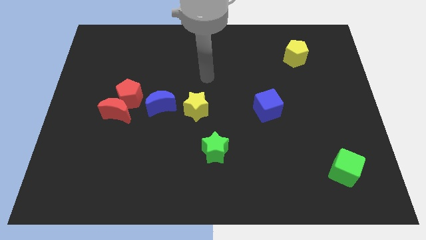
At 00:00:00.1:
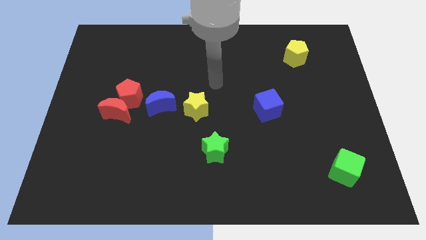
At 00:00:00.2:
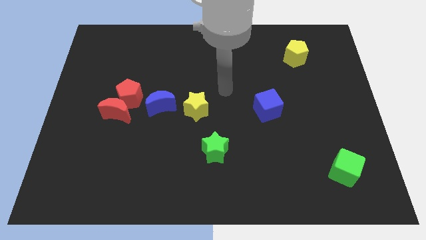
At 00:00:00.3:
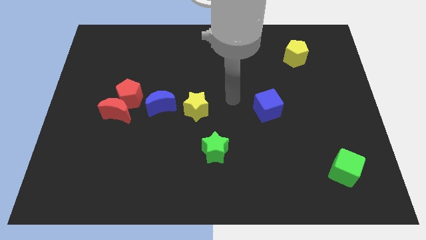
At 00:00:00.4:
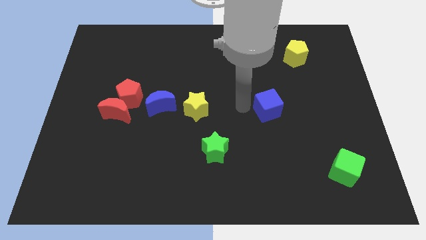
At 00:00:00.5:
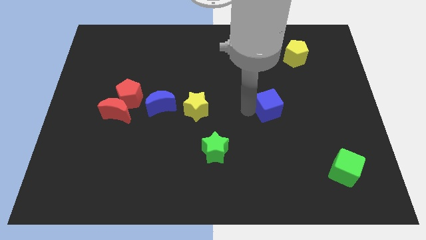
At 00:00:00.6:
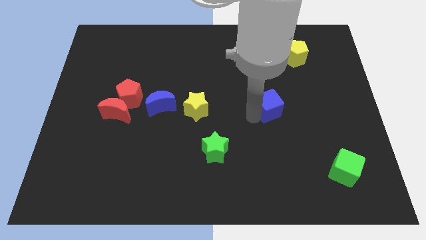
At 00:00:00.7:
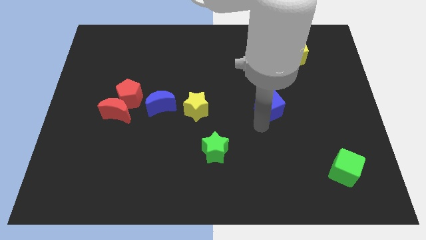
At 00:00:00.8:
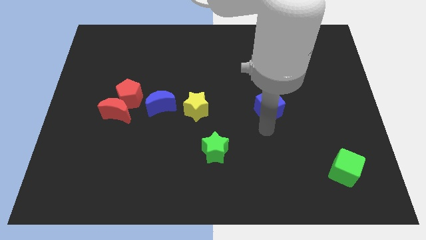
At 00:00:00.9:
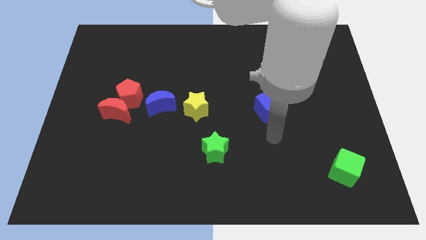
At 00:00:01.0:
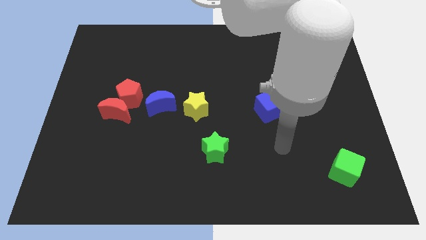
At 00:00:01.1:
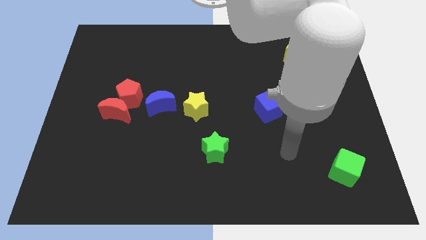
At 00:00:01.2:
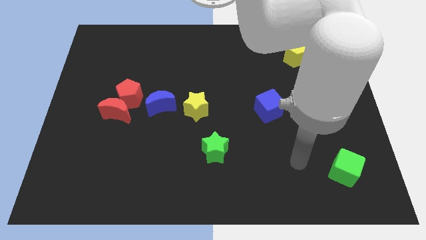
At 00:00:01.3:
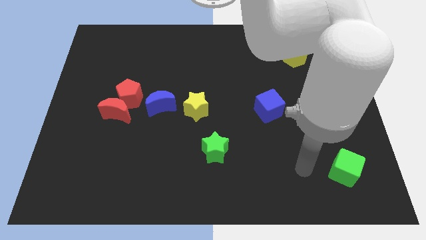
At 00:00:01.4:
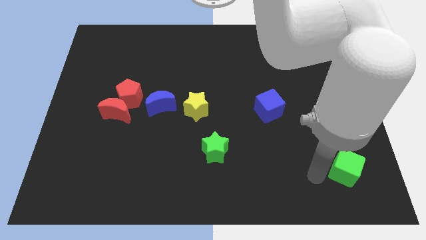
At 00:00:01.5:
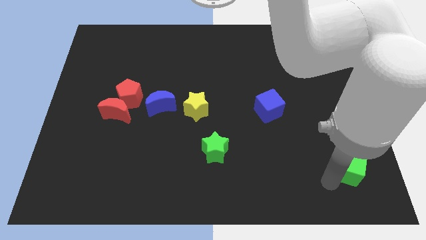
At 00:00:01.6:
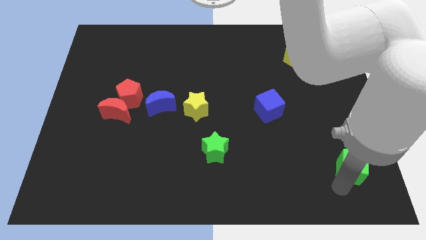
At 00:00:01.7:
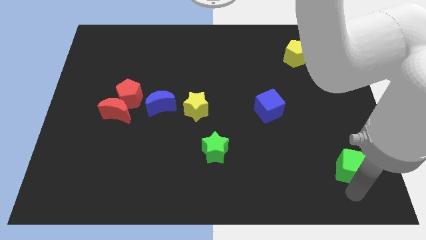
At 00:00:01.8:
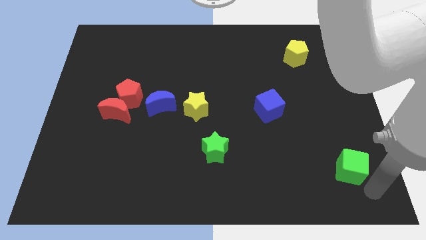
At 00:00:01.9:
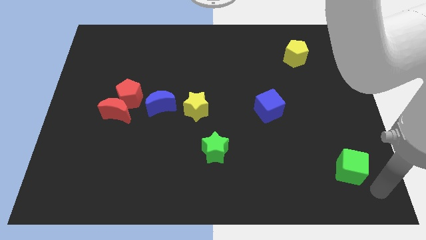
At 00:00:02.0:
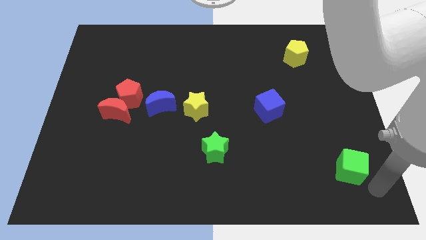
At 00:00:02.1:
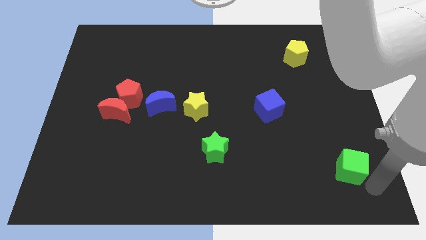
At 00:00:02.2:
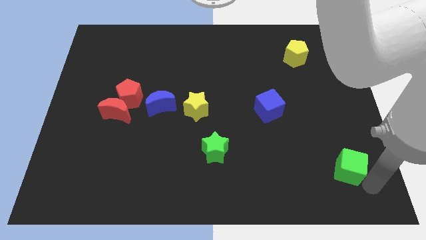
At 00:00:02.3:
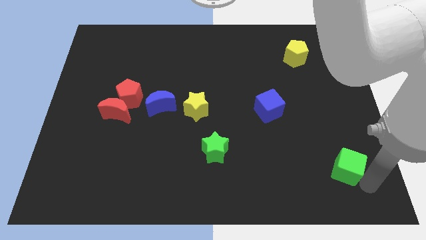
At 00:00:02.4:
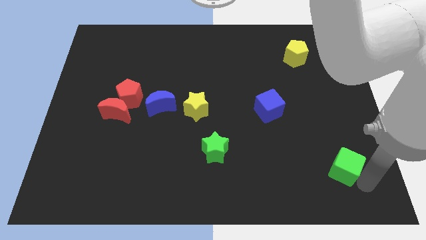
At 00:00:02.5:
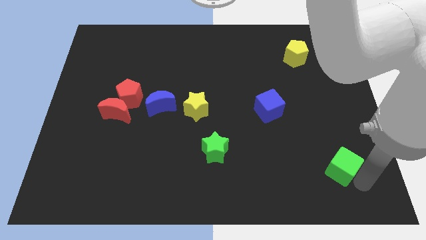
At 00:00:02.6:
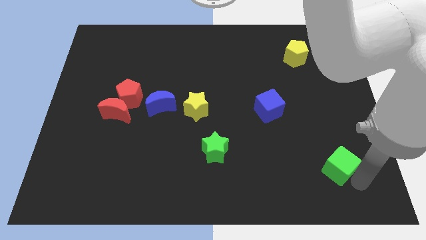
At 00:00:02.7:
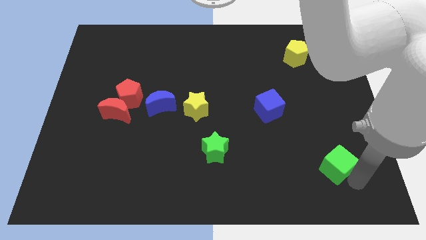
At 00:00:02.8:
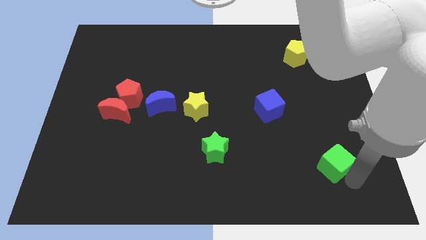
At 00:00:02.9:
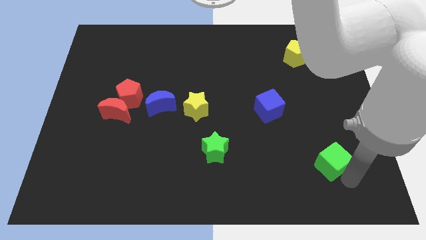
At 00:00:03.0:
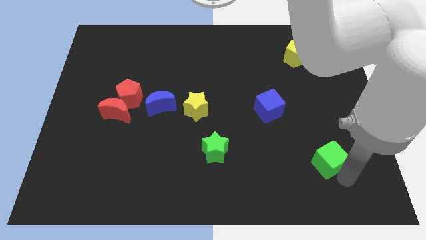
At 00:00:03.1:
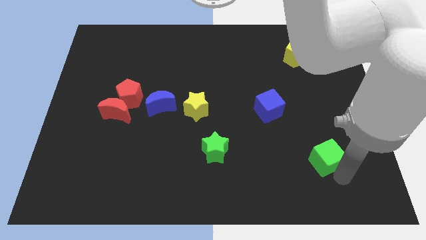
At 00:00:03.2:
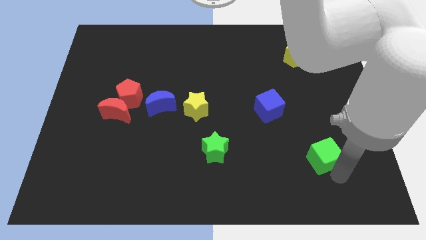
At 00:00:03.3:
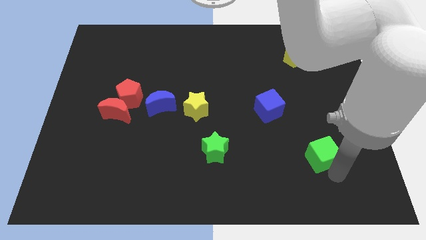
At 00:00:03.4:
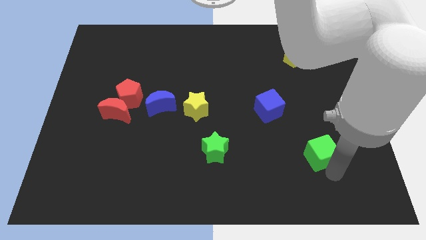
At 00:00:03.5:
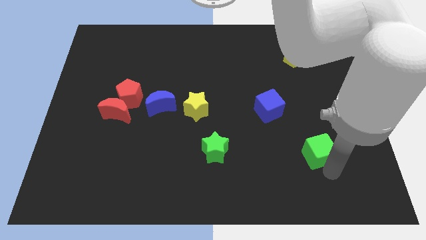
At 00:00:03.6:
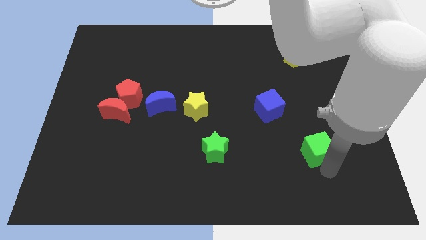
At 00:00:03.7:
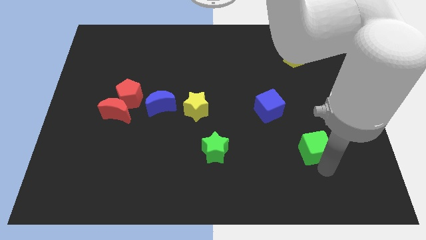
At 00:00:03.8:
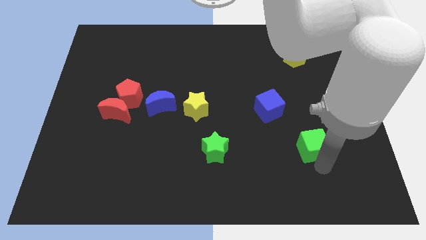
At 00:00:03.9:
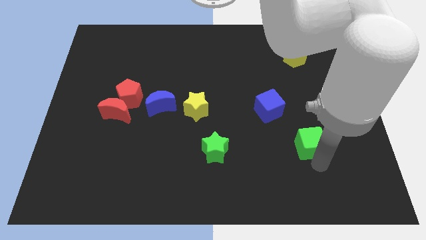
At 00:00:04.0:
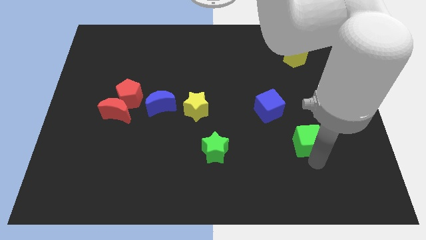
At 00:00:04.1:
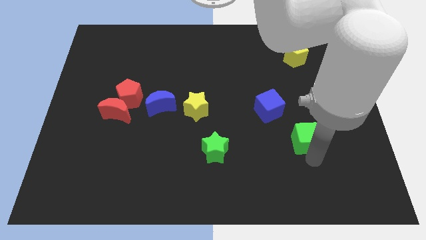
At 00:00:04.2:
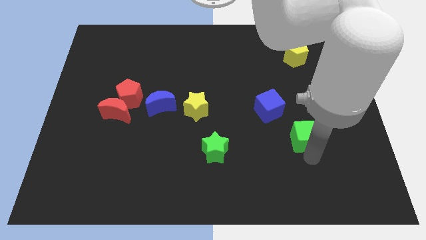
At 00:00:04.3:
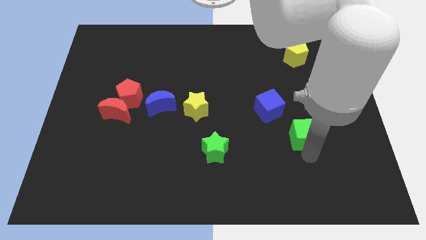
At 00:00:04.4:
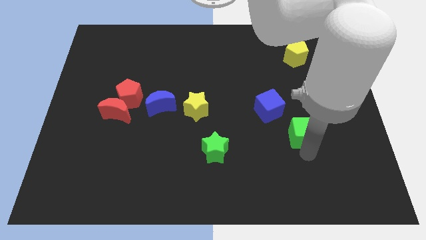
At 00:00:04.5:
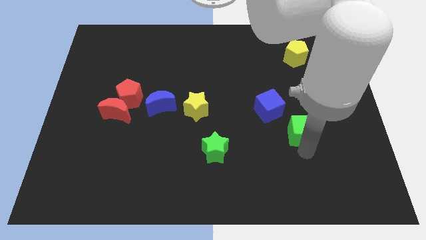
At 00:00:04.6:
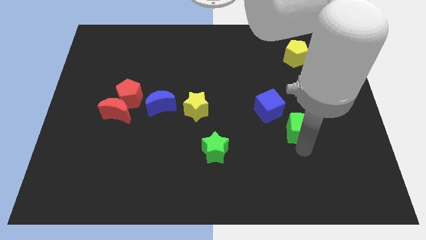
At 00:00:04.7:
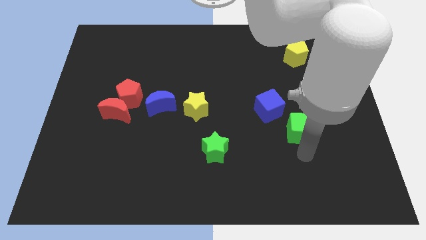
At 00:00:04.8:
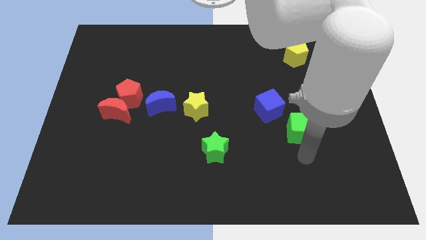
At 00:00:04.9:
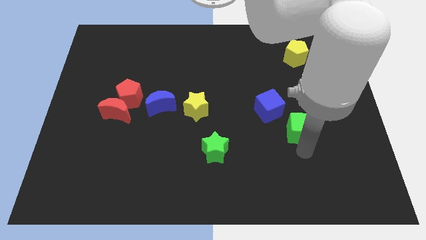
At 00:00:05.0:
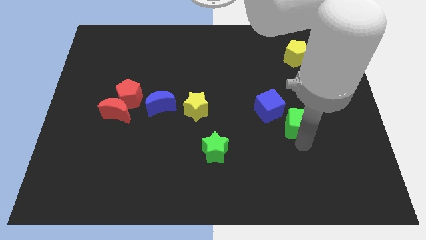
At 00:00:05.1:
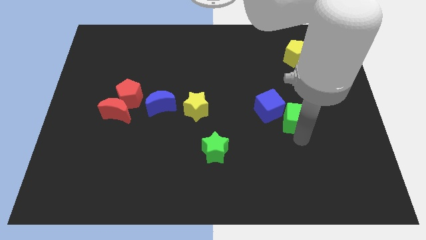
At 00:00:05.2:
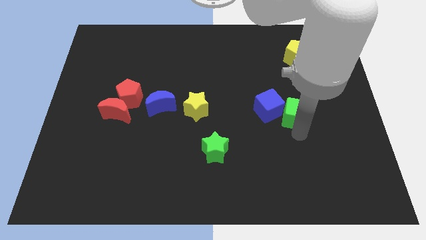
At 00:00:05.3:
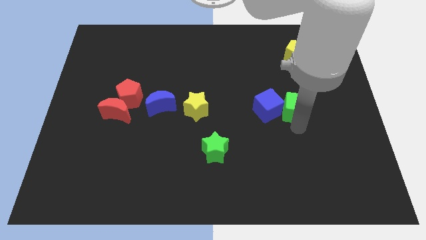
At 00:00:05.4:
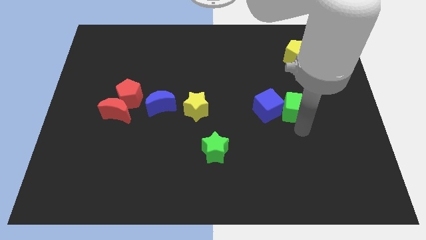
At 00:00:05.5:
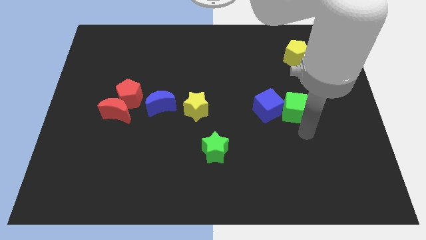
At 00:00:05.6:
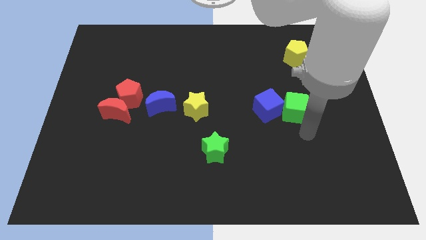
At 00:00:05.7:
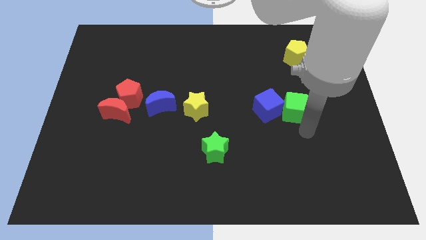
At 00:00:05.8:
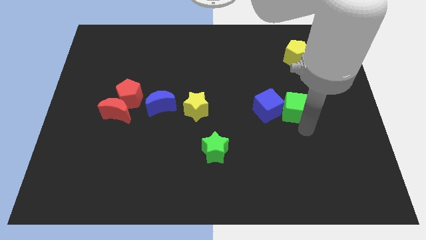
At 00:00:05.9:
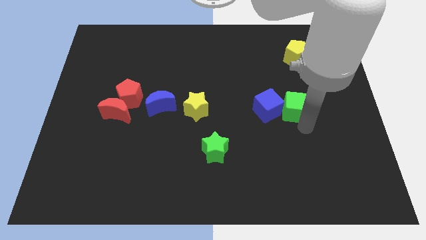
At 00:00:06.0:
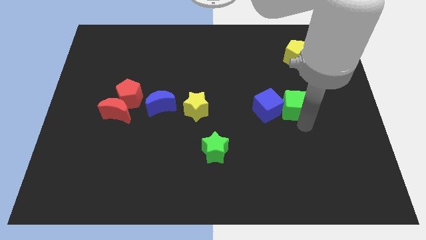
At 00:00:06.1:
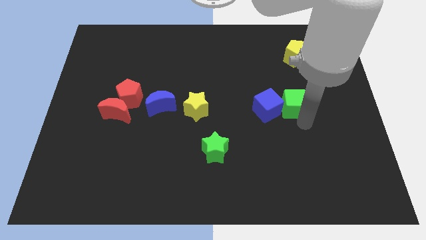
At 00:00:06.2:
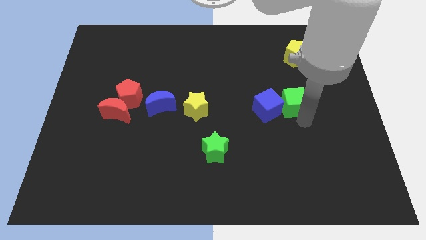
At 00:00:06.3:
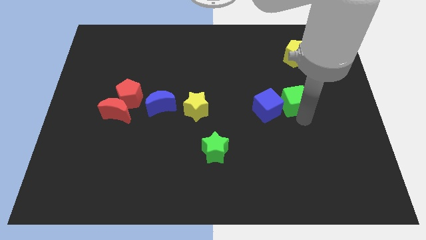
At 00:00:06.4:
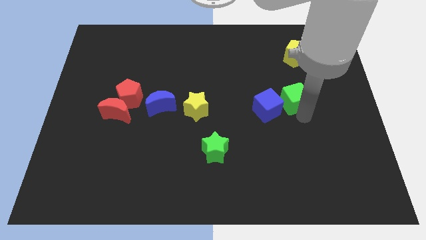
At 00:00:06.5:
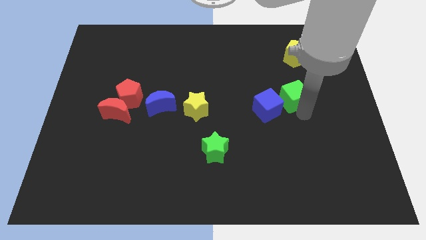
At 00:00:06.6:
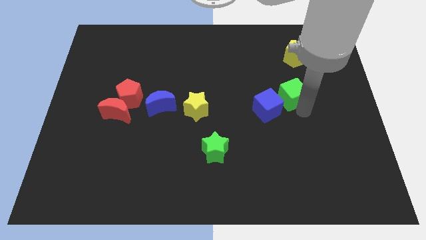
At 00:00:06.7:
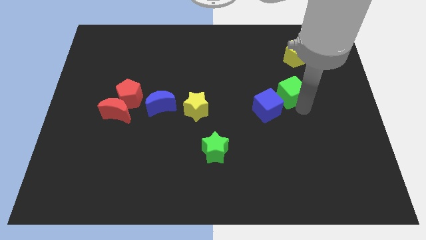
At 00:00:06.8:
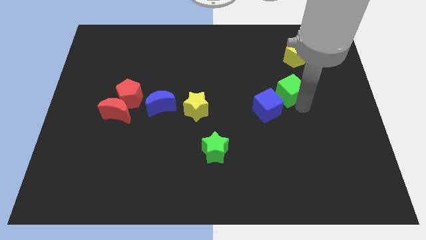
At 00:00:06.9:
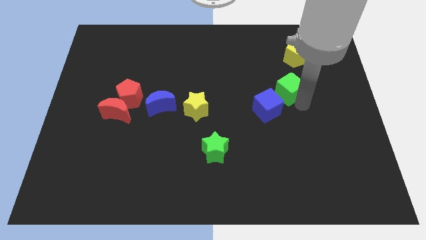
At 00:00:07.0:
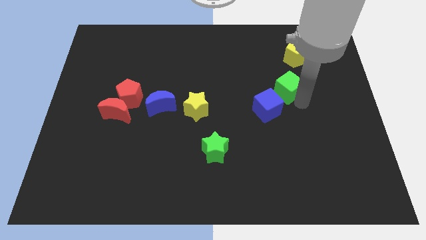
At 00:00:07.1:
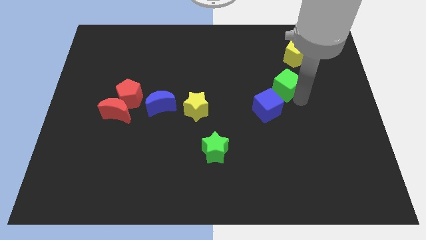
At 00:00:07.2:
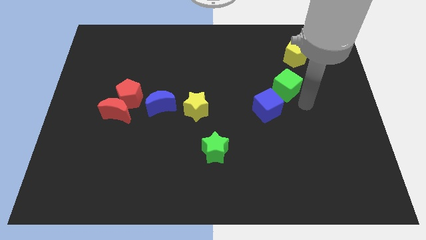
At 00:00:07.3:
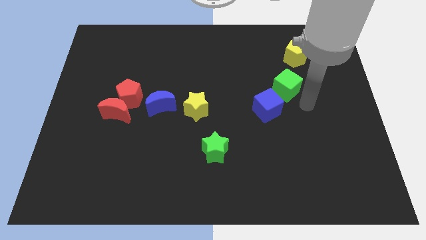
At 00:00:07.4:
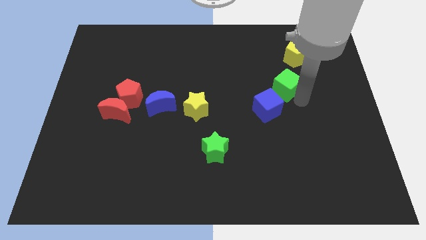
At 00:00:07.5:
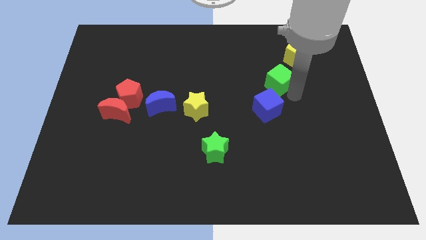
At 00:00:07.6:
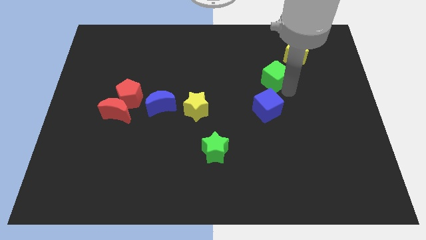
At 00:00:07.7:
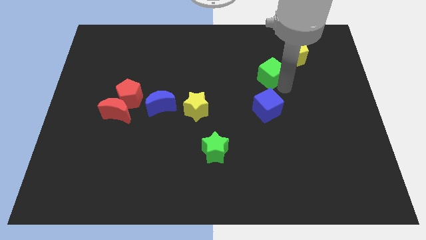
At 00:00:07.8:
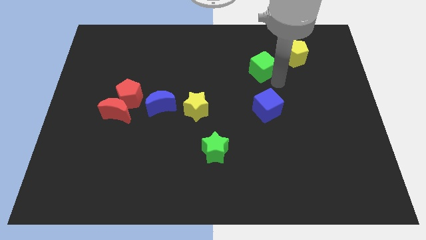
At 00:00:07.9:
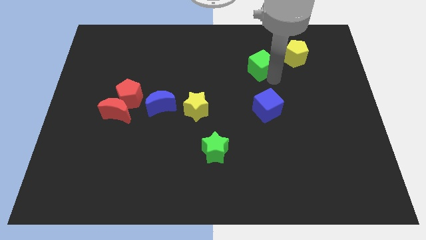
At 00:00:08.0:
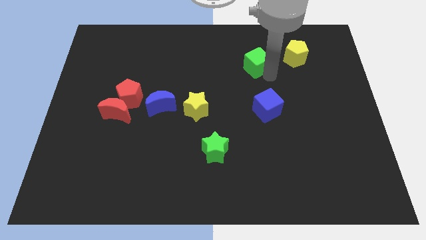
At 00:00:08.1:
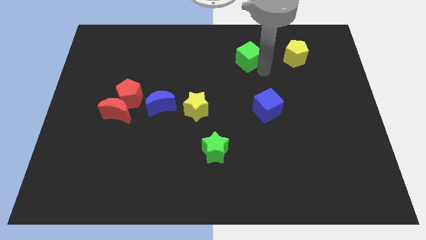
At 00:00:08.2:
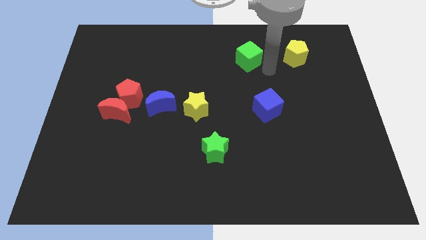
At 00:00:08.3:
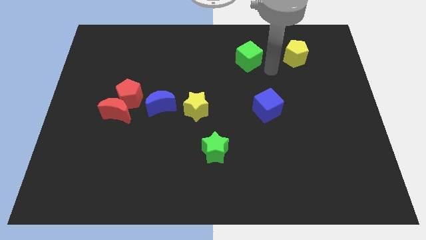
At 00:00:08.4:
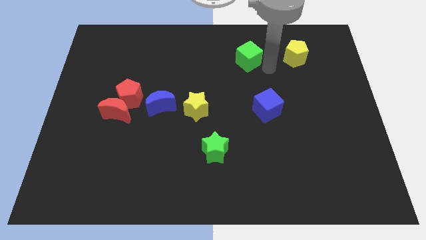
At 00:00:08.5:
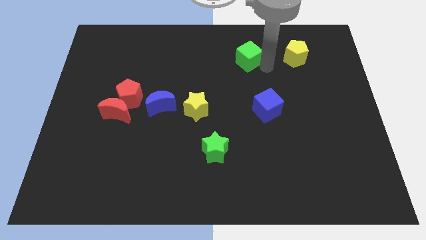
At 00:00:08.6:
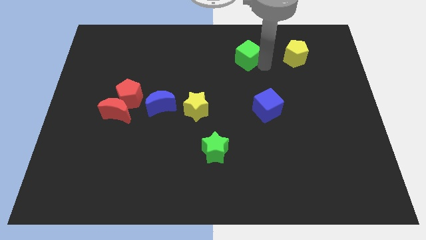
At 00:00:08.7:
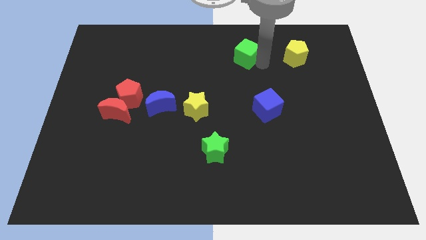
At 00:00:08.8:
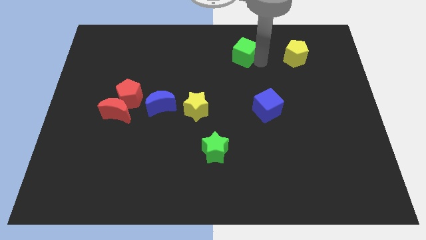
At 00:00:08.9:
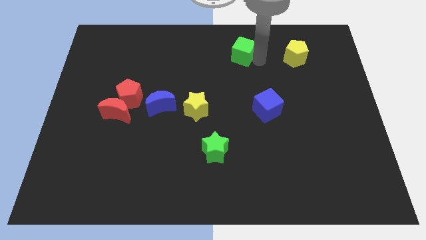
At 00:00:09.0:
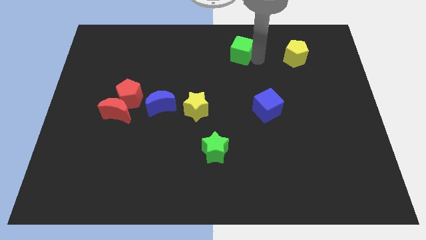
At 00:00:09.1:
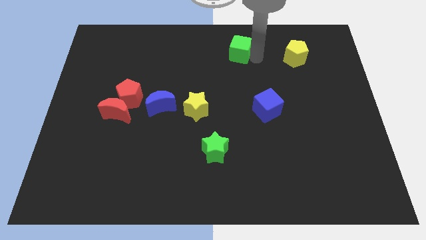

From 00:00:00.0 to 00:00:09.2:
slide the green cube to the towards your base
